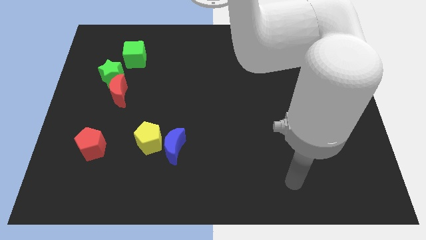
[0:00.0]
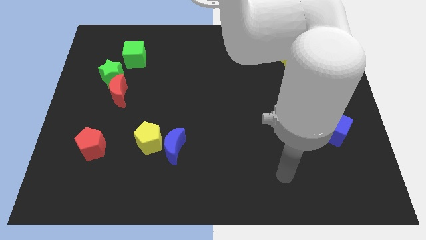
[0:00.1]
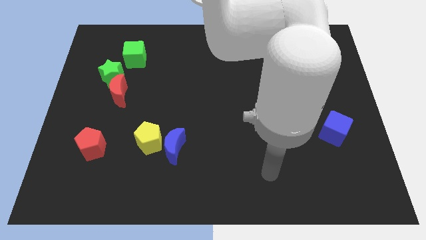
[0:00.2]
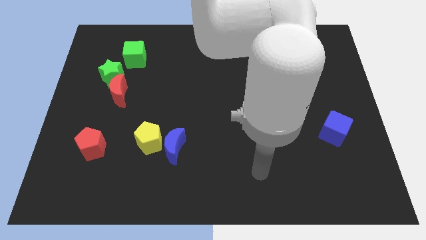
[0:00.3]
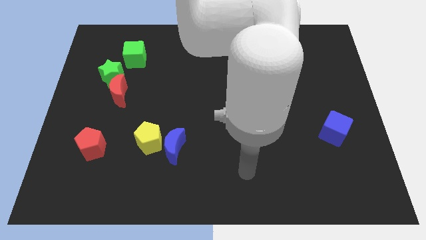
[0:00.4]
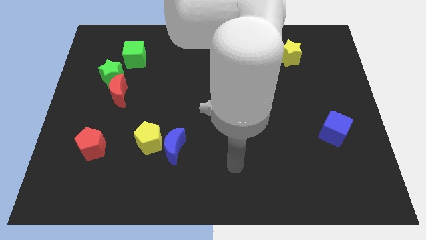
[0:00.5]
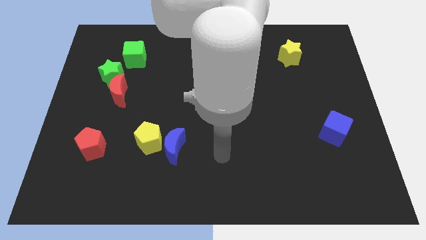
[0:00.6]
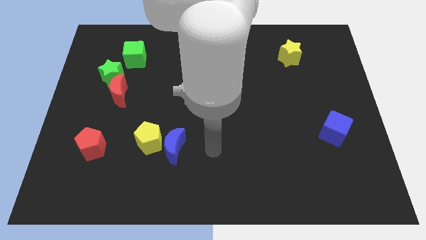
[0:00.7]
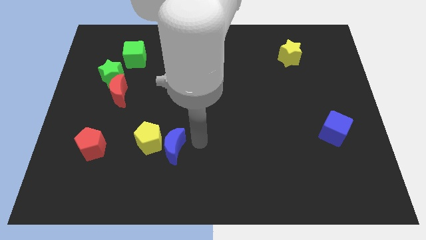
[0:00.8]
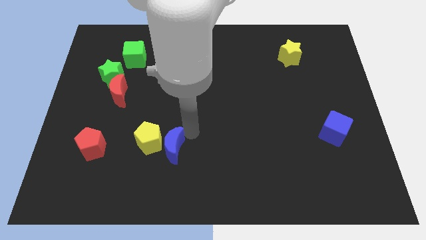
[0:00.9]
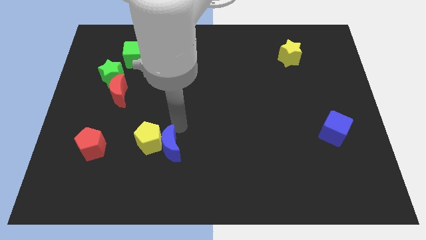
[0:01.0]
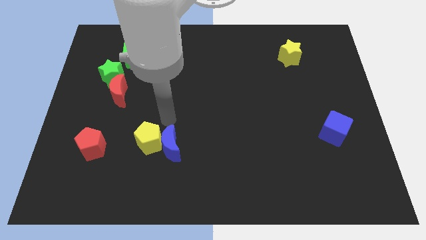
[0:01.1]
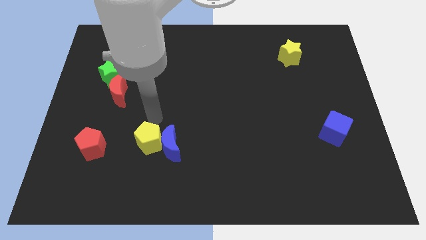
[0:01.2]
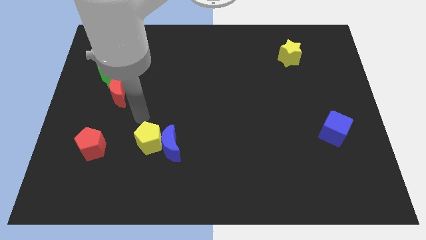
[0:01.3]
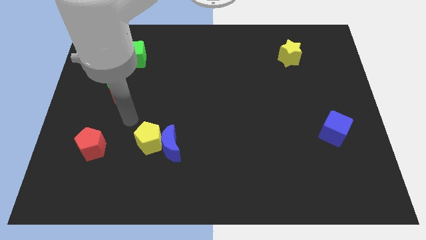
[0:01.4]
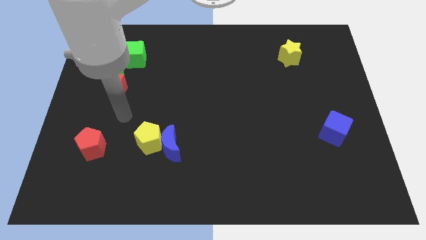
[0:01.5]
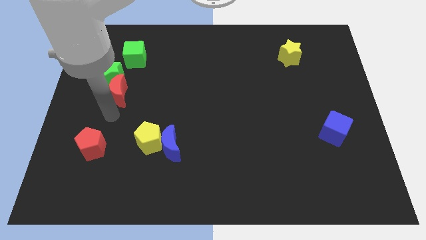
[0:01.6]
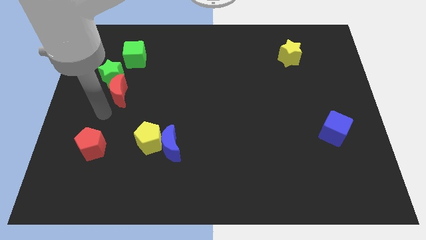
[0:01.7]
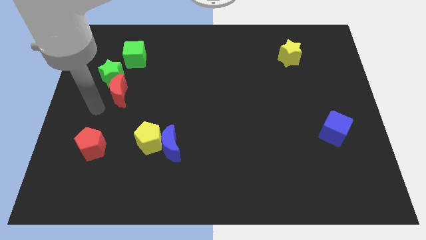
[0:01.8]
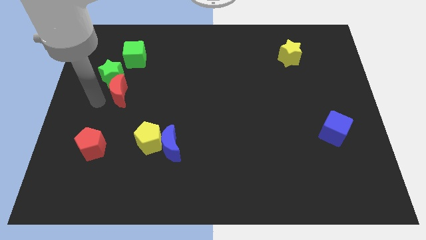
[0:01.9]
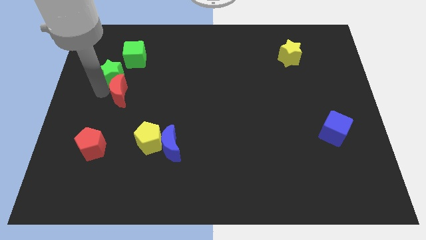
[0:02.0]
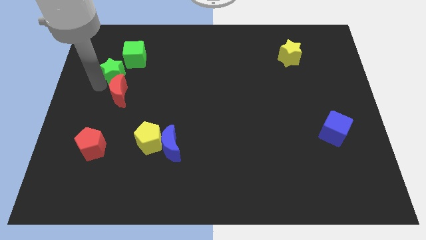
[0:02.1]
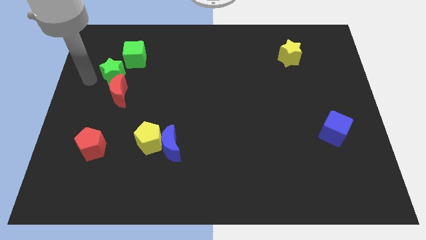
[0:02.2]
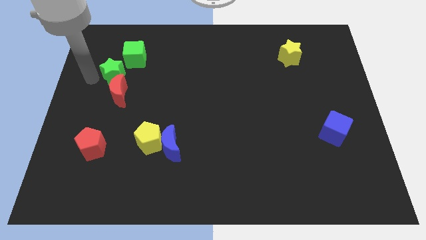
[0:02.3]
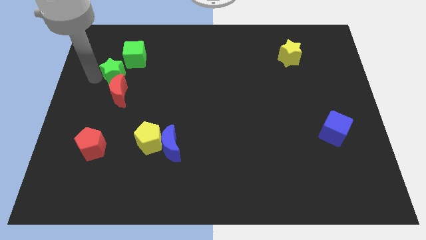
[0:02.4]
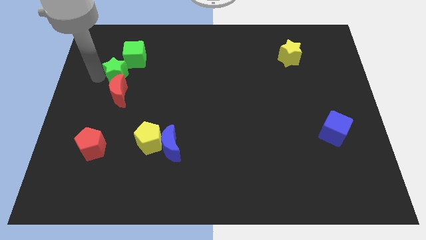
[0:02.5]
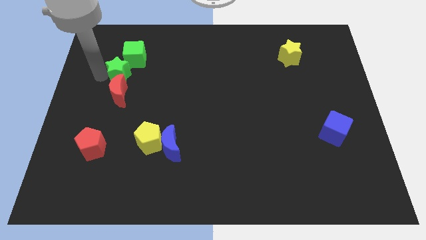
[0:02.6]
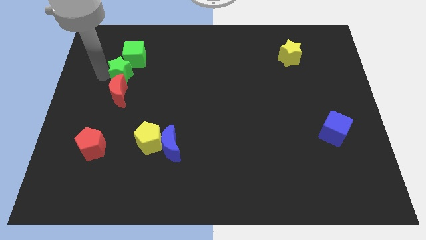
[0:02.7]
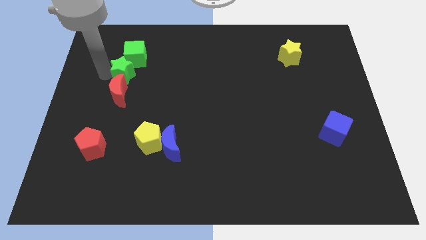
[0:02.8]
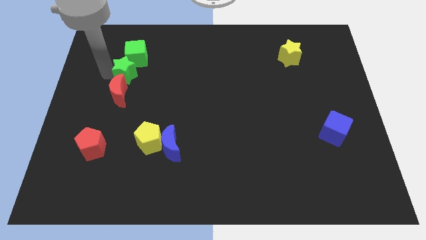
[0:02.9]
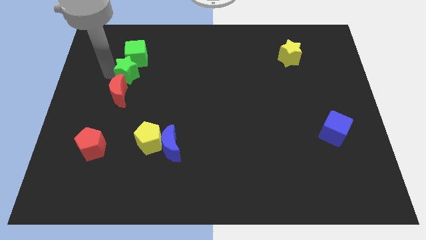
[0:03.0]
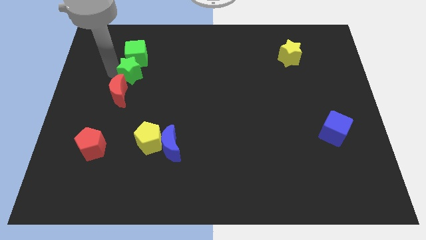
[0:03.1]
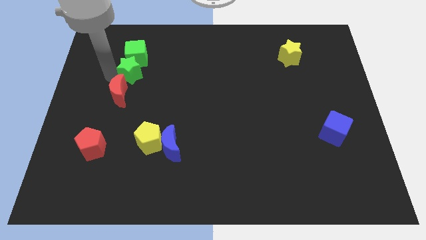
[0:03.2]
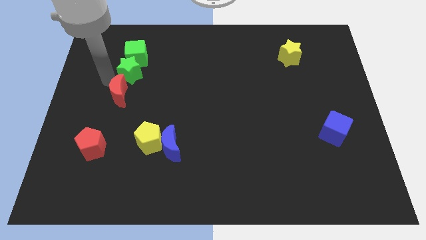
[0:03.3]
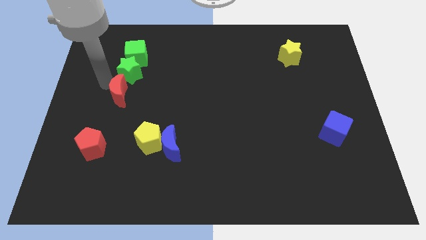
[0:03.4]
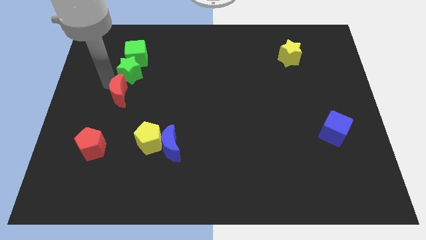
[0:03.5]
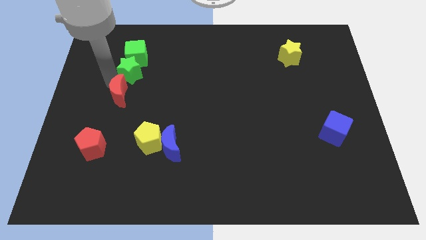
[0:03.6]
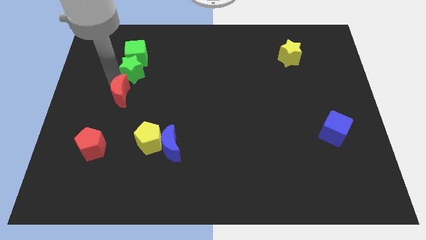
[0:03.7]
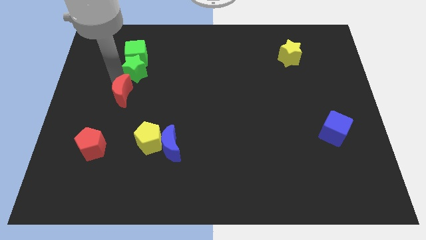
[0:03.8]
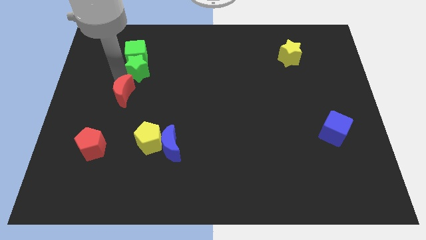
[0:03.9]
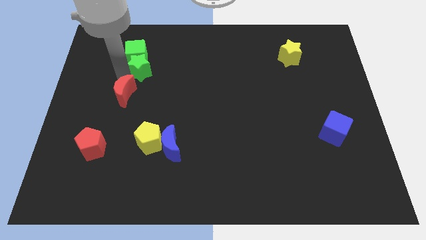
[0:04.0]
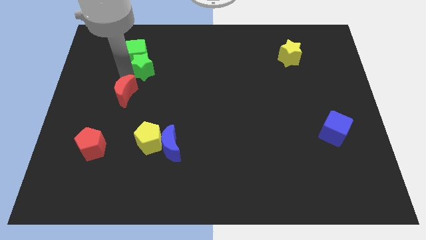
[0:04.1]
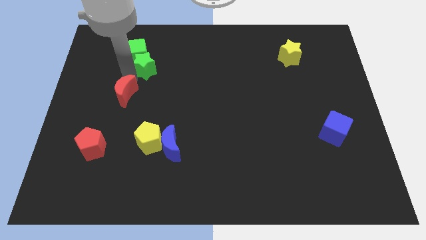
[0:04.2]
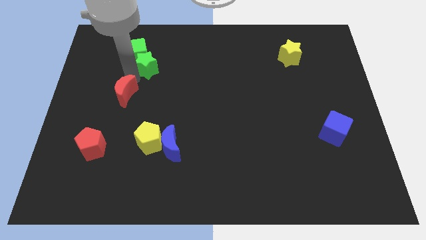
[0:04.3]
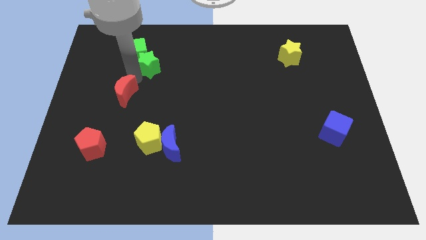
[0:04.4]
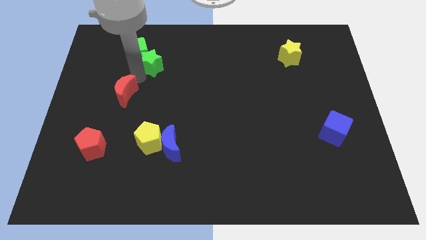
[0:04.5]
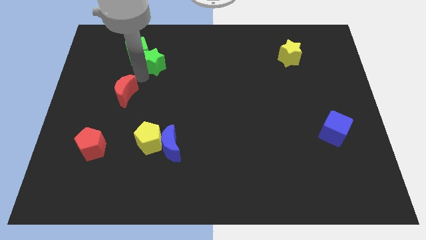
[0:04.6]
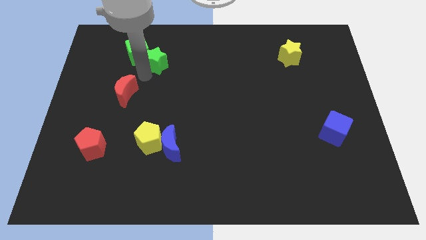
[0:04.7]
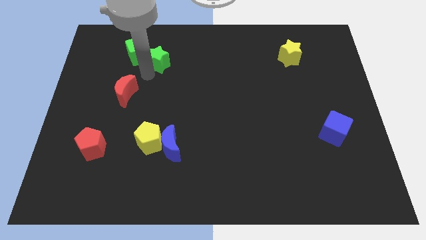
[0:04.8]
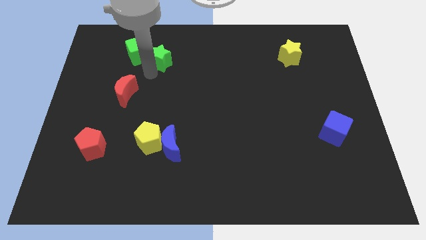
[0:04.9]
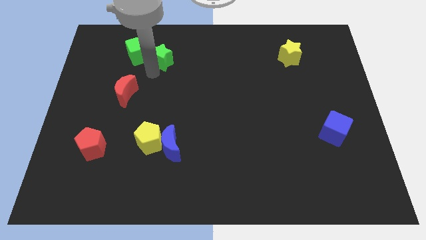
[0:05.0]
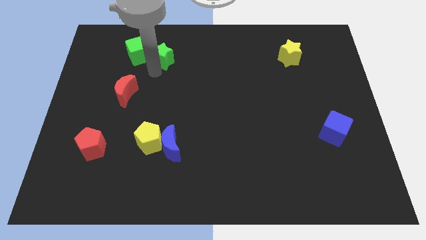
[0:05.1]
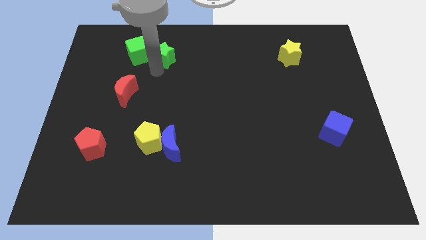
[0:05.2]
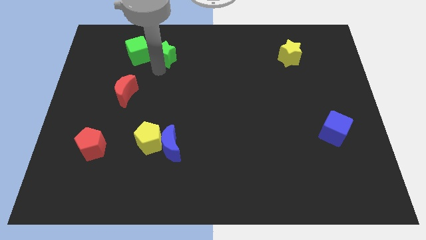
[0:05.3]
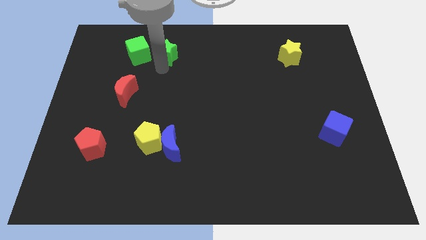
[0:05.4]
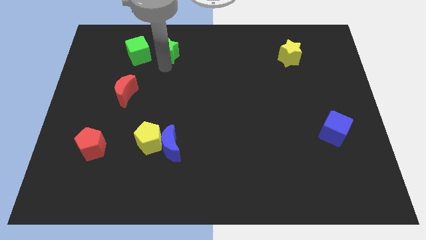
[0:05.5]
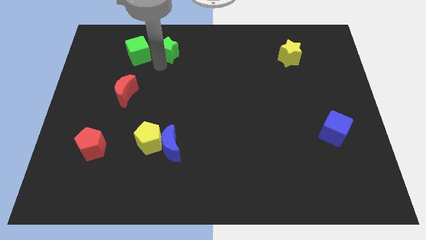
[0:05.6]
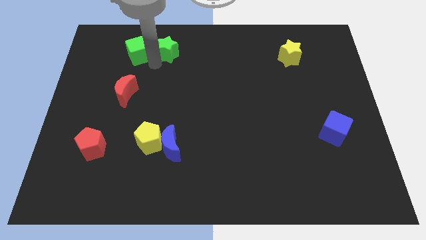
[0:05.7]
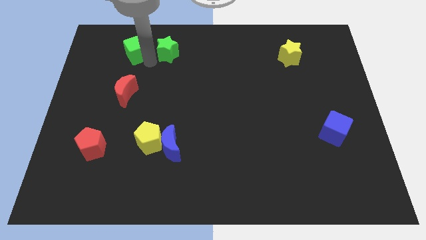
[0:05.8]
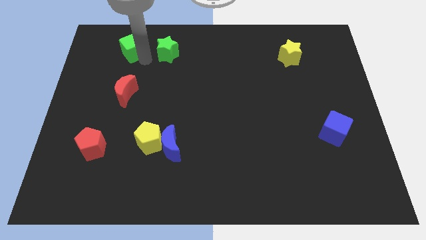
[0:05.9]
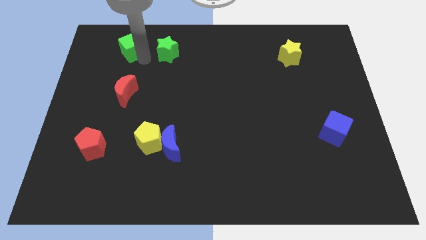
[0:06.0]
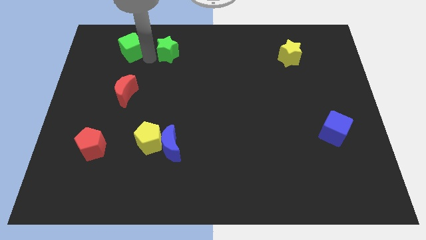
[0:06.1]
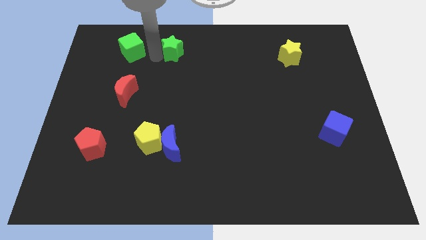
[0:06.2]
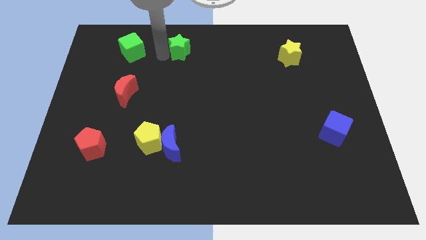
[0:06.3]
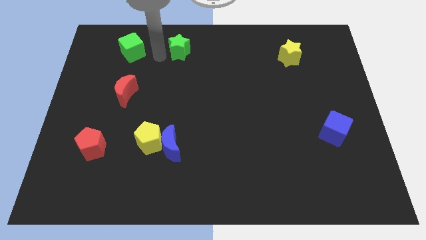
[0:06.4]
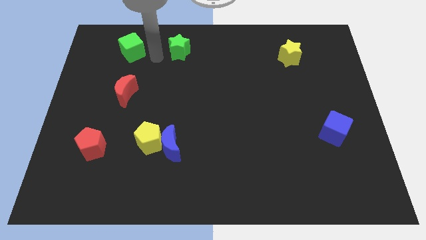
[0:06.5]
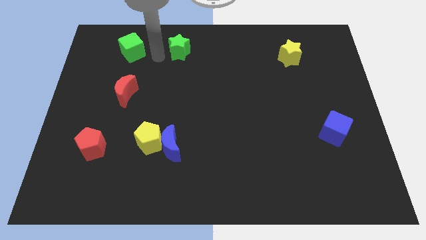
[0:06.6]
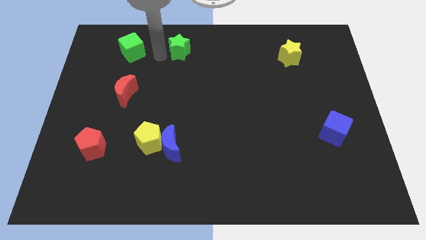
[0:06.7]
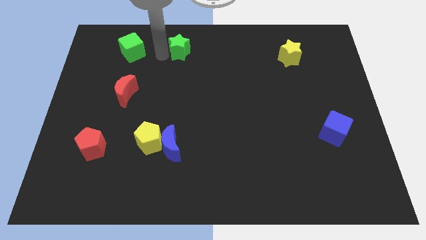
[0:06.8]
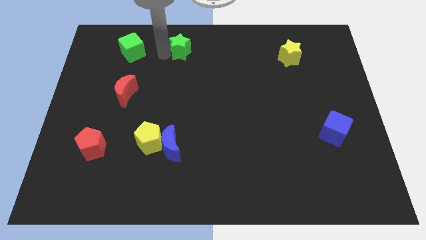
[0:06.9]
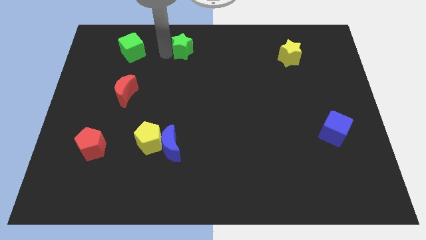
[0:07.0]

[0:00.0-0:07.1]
push the green star to the towards your base
